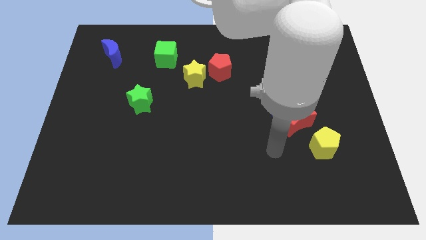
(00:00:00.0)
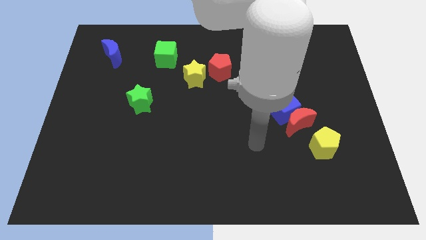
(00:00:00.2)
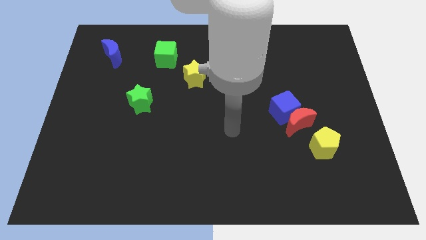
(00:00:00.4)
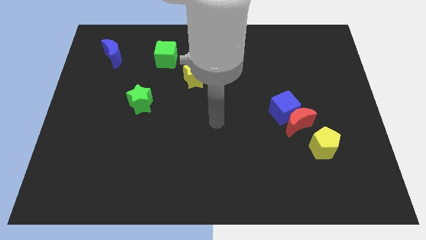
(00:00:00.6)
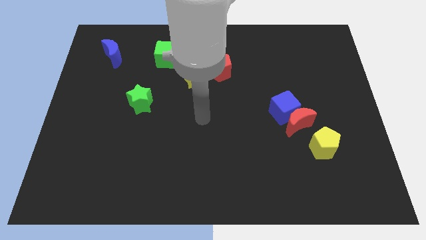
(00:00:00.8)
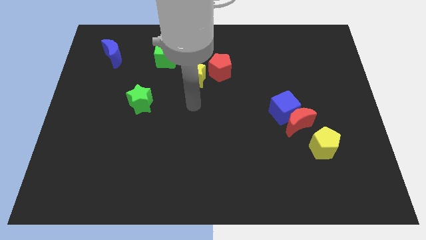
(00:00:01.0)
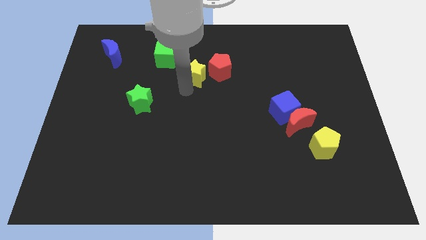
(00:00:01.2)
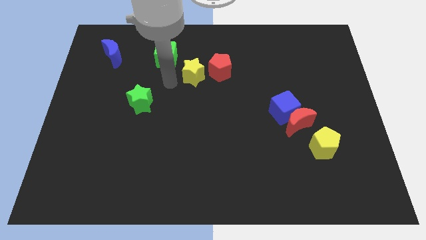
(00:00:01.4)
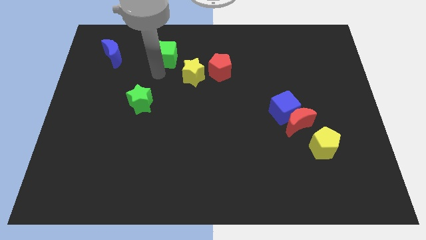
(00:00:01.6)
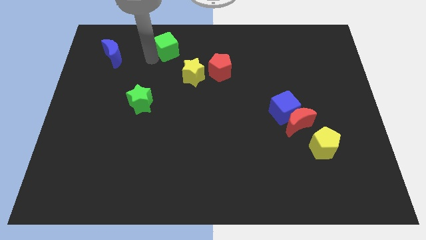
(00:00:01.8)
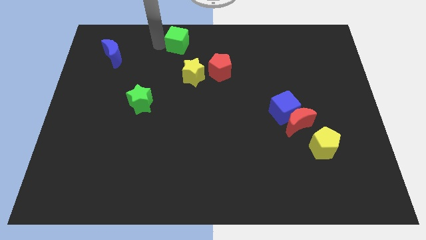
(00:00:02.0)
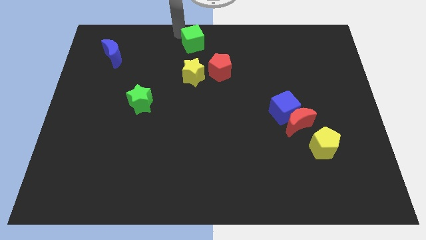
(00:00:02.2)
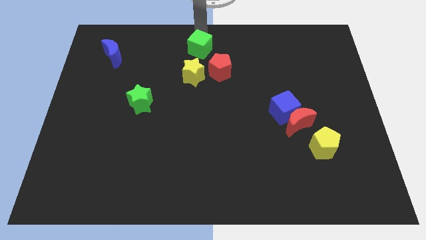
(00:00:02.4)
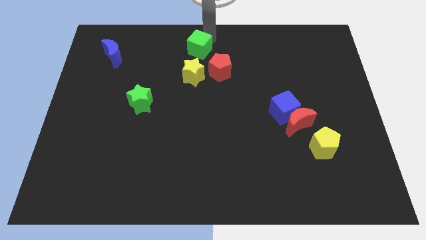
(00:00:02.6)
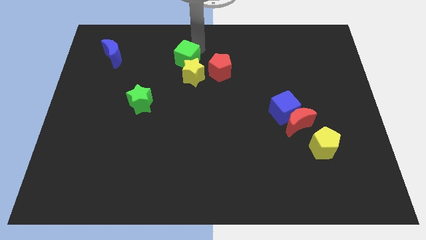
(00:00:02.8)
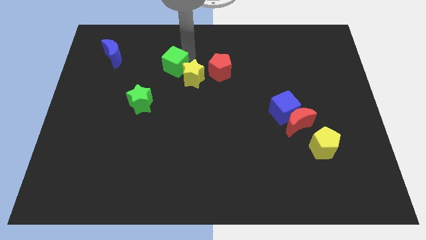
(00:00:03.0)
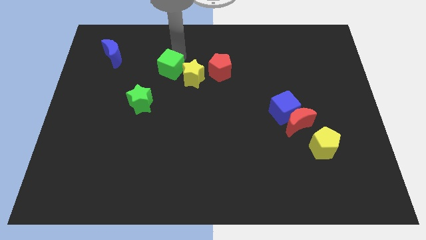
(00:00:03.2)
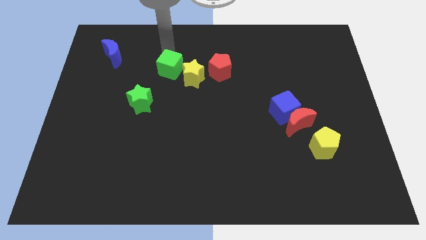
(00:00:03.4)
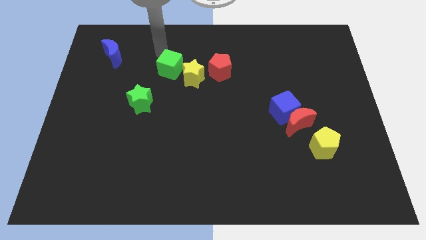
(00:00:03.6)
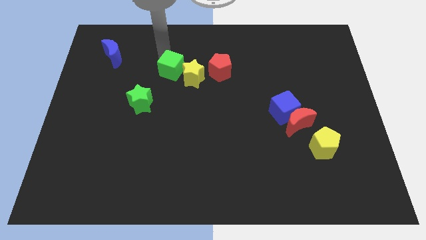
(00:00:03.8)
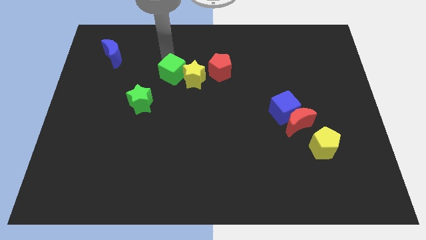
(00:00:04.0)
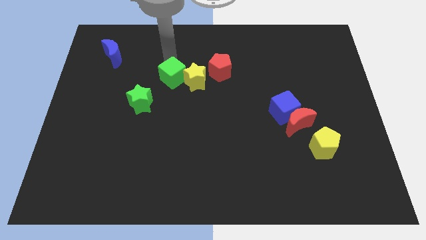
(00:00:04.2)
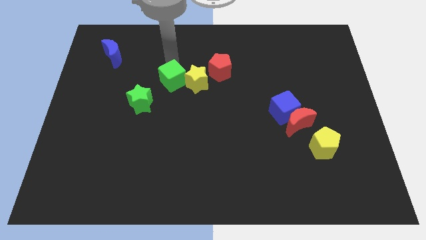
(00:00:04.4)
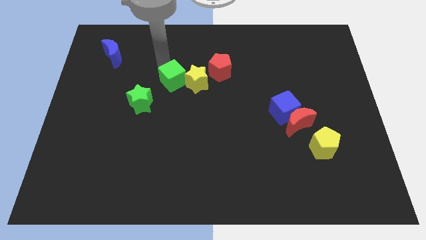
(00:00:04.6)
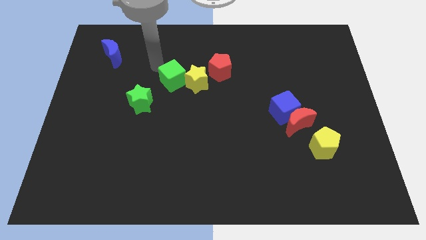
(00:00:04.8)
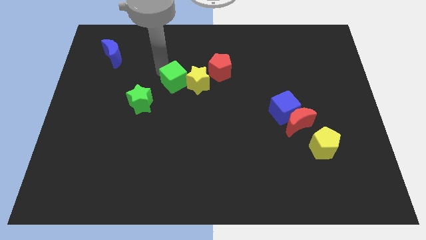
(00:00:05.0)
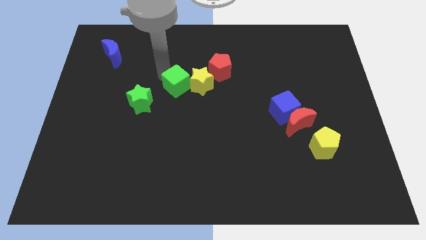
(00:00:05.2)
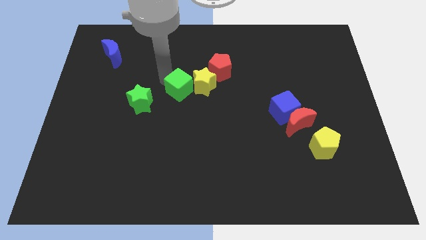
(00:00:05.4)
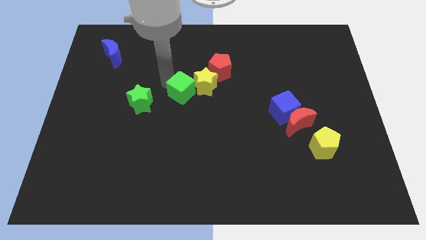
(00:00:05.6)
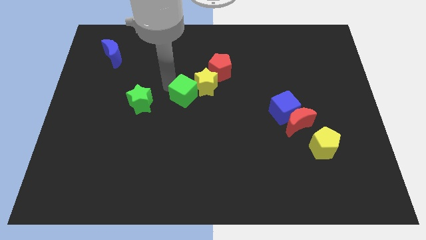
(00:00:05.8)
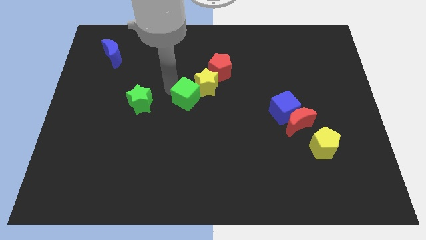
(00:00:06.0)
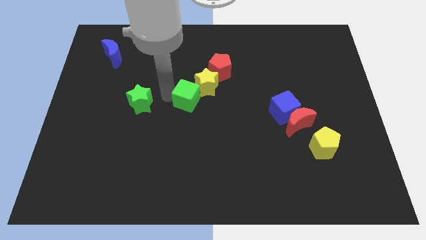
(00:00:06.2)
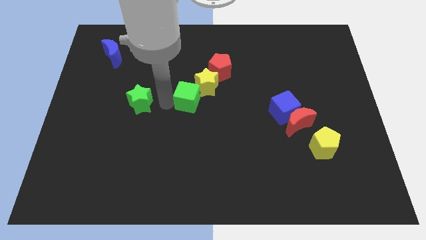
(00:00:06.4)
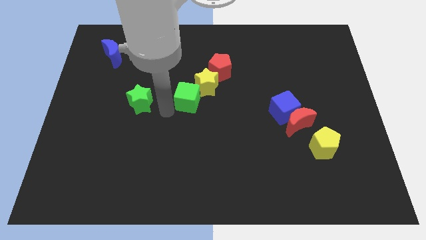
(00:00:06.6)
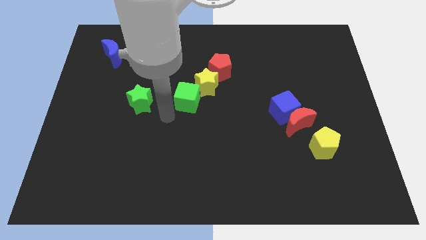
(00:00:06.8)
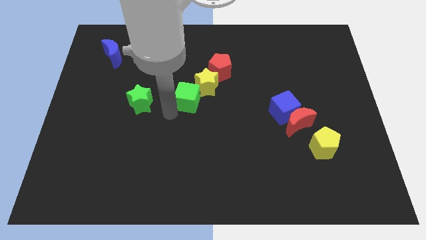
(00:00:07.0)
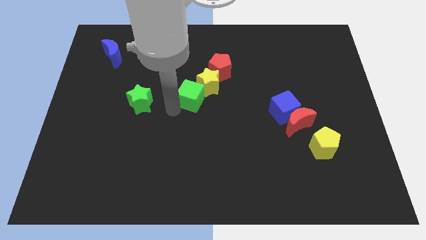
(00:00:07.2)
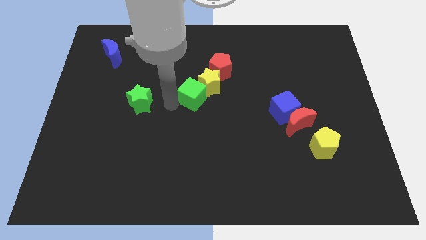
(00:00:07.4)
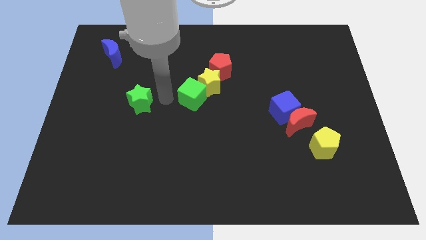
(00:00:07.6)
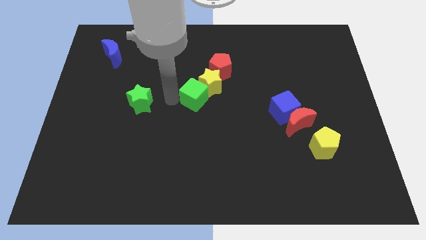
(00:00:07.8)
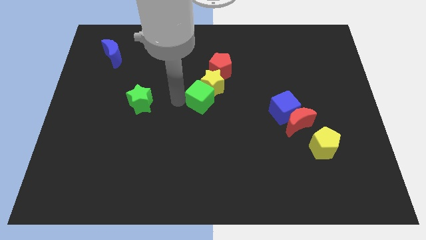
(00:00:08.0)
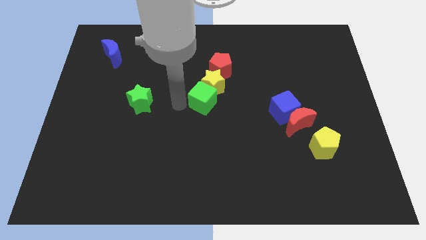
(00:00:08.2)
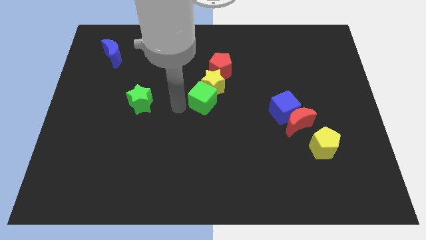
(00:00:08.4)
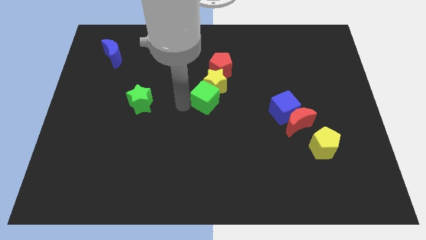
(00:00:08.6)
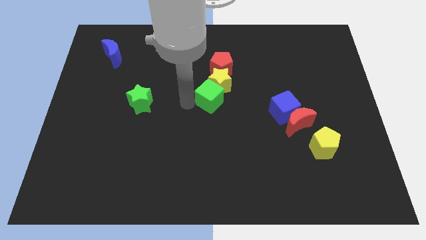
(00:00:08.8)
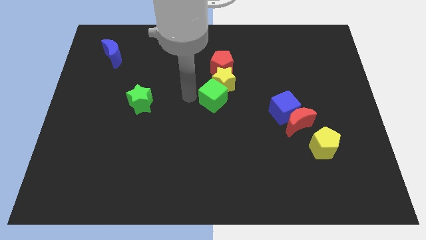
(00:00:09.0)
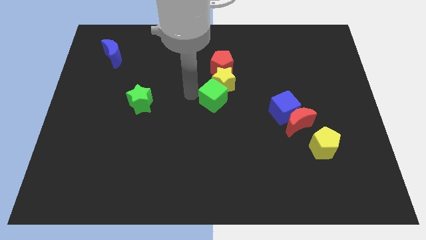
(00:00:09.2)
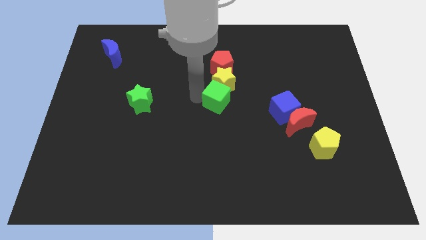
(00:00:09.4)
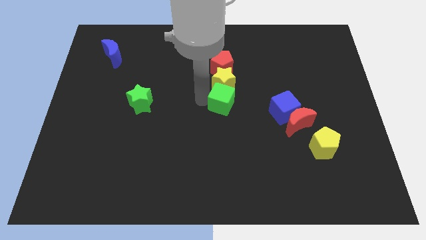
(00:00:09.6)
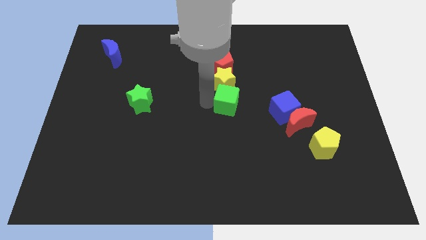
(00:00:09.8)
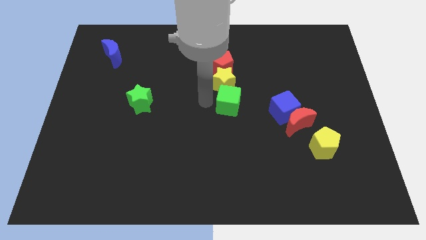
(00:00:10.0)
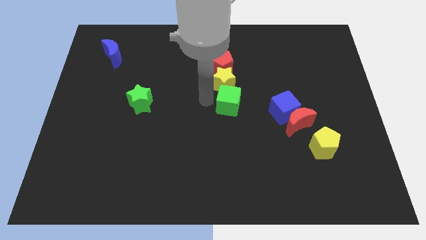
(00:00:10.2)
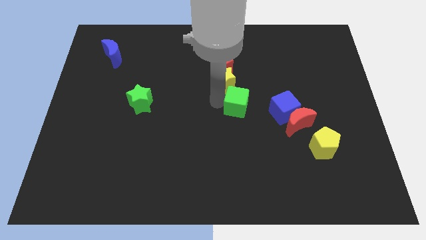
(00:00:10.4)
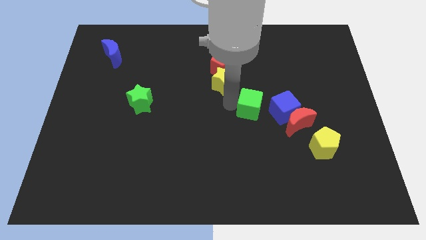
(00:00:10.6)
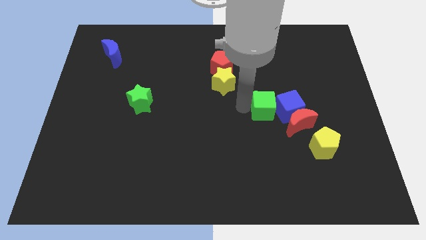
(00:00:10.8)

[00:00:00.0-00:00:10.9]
move the green cube towards the blue cube

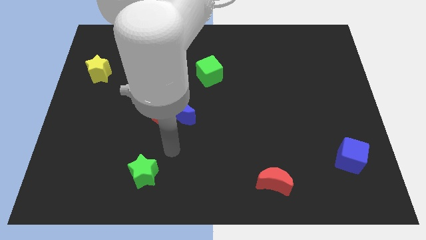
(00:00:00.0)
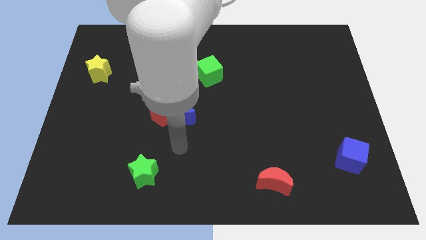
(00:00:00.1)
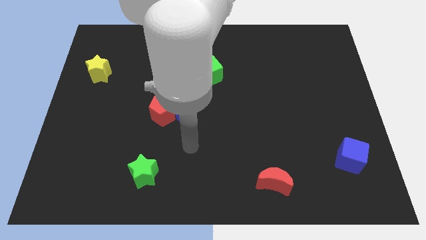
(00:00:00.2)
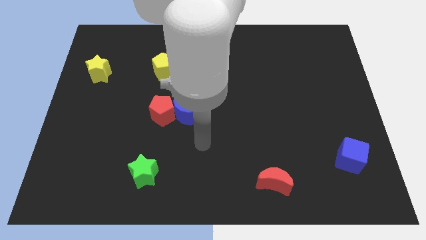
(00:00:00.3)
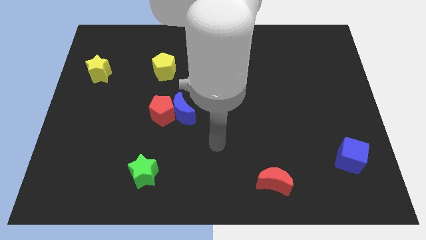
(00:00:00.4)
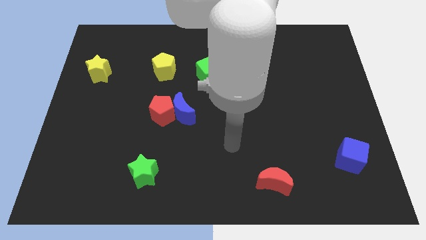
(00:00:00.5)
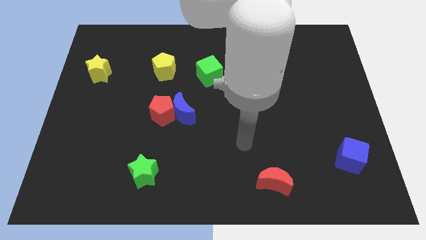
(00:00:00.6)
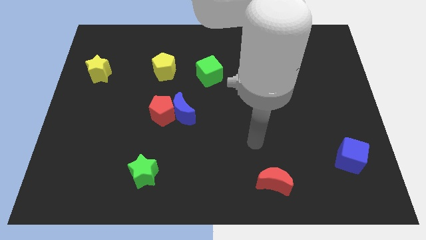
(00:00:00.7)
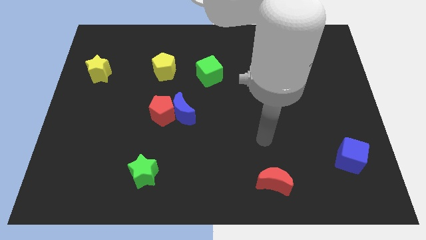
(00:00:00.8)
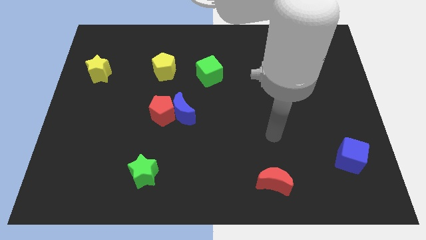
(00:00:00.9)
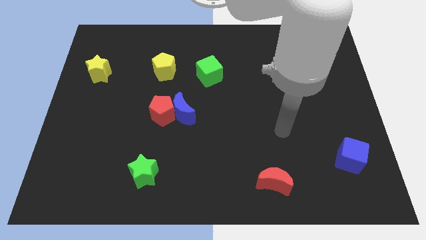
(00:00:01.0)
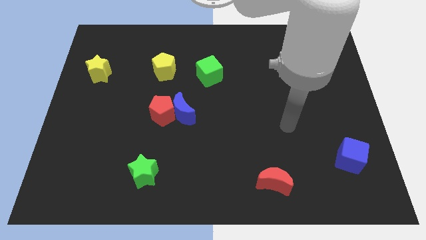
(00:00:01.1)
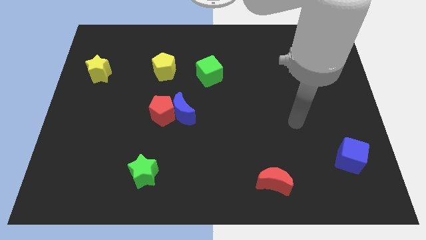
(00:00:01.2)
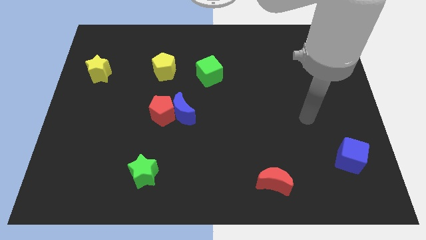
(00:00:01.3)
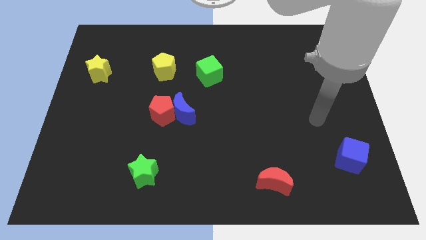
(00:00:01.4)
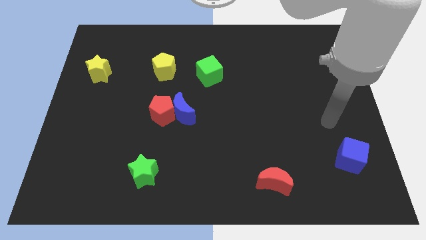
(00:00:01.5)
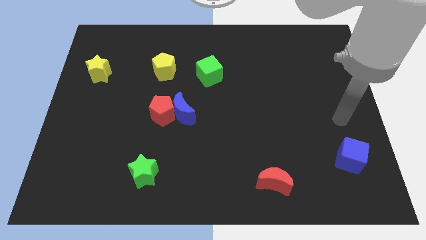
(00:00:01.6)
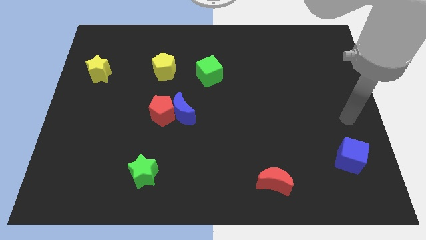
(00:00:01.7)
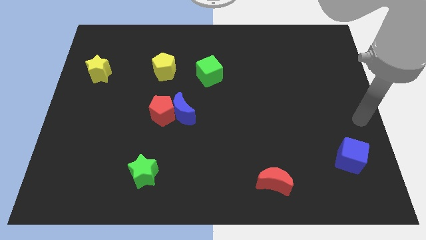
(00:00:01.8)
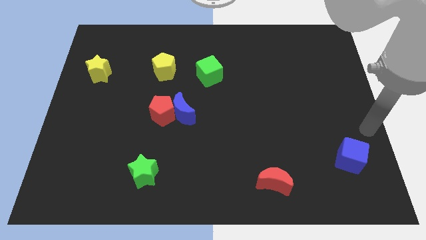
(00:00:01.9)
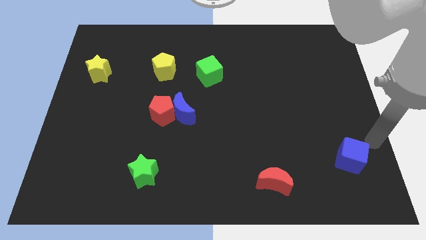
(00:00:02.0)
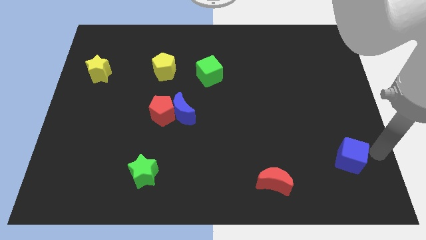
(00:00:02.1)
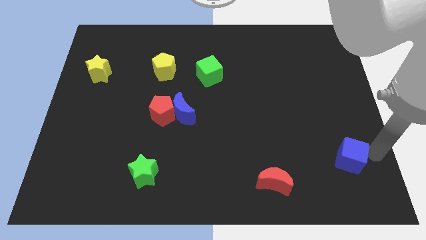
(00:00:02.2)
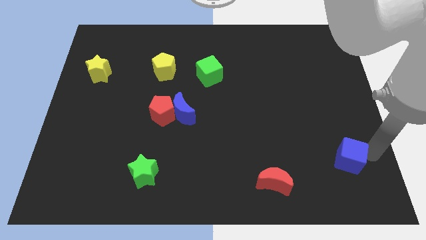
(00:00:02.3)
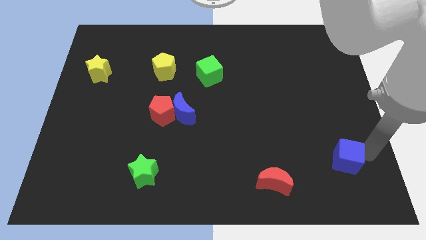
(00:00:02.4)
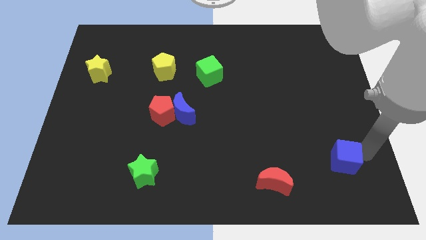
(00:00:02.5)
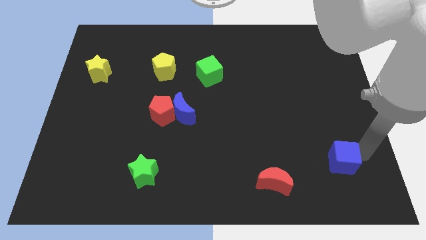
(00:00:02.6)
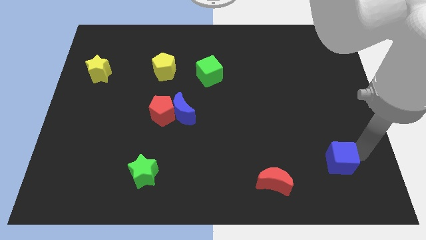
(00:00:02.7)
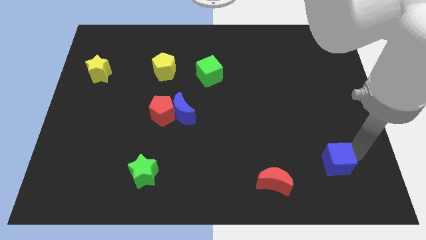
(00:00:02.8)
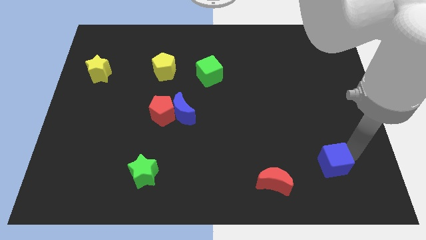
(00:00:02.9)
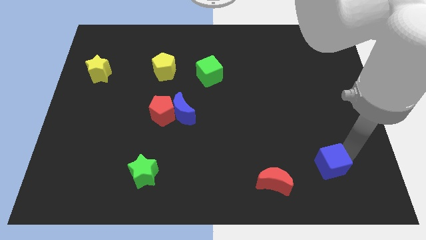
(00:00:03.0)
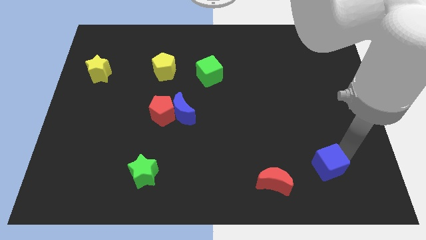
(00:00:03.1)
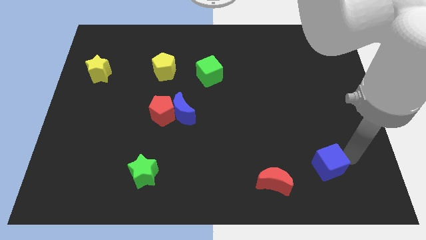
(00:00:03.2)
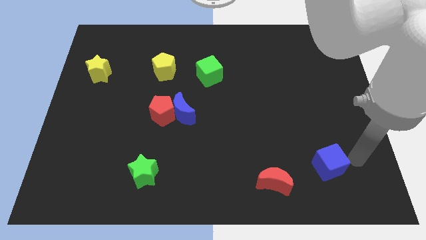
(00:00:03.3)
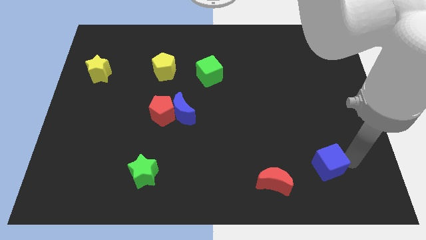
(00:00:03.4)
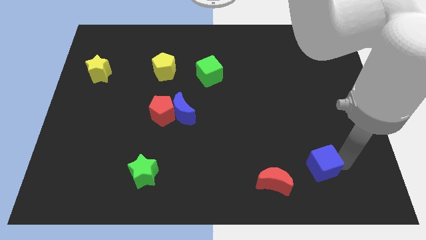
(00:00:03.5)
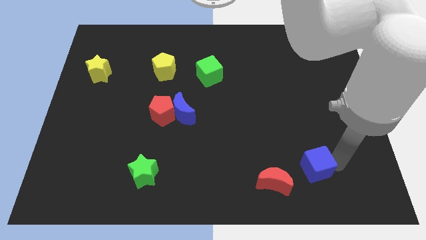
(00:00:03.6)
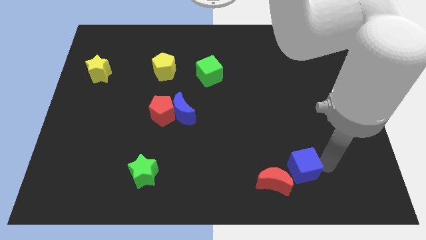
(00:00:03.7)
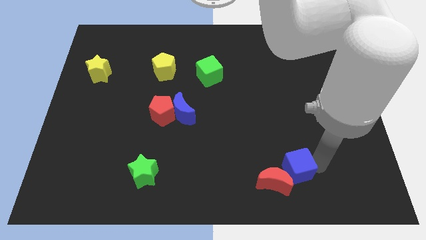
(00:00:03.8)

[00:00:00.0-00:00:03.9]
move the blue cube to the red moon
